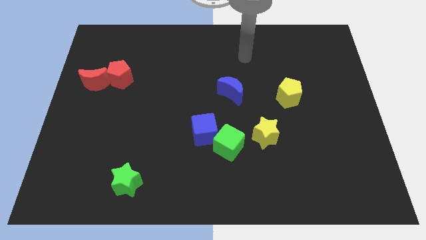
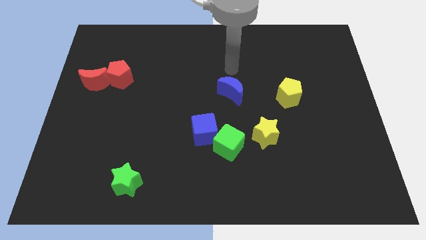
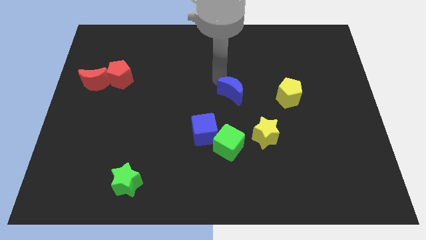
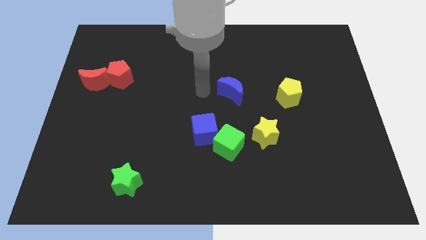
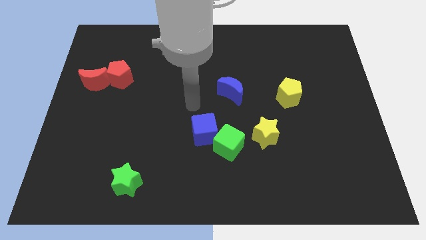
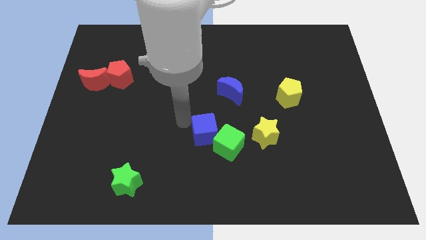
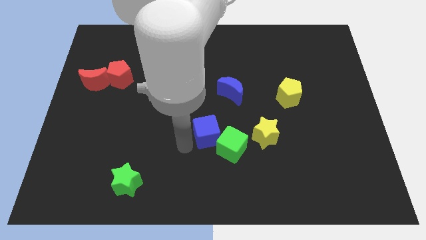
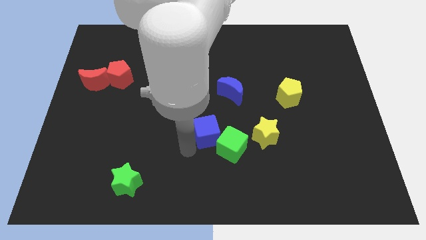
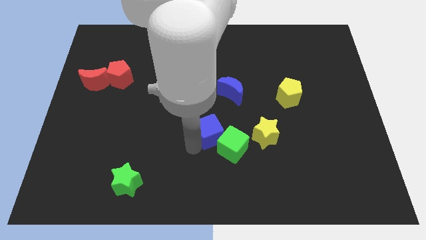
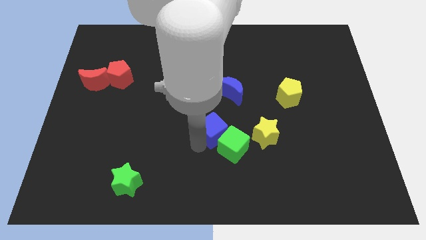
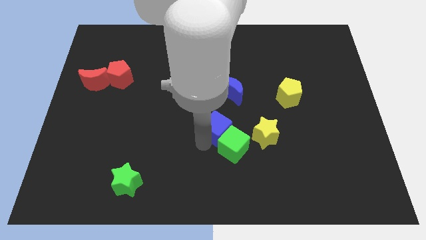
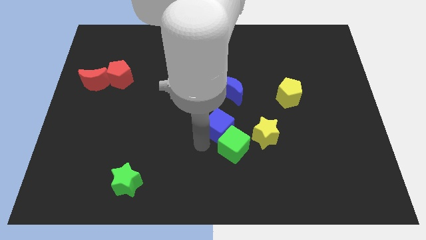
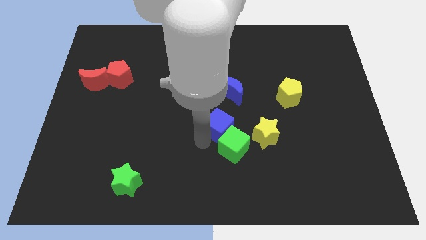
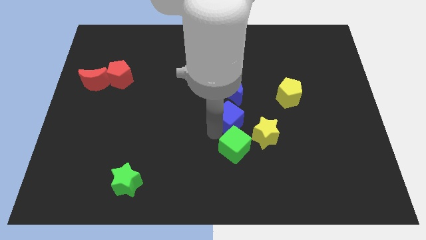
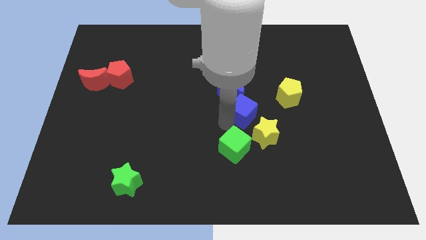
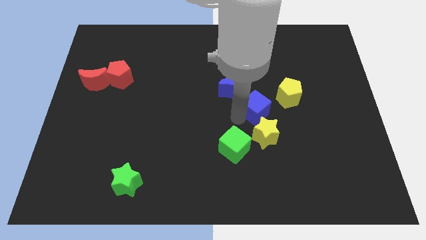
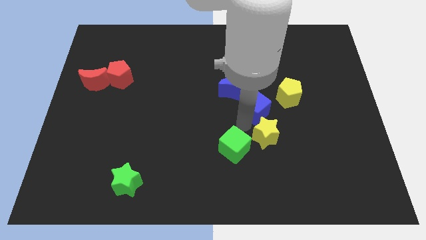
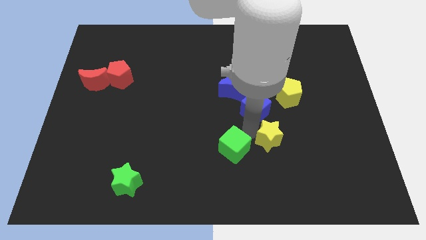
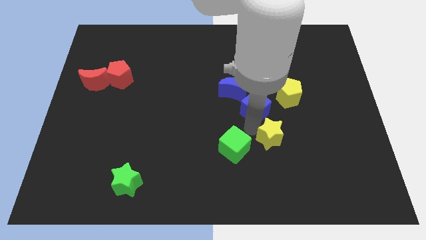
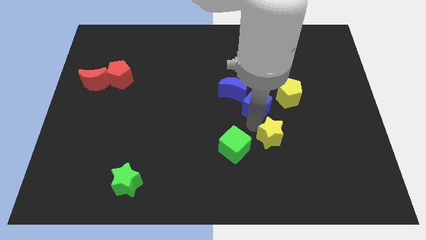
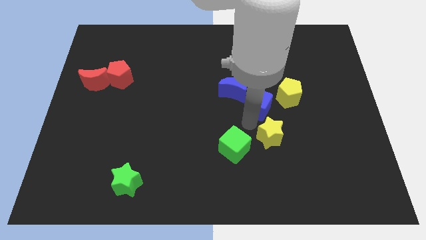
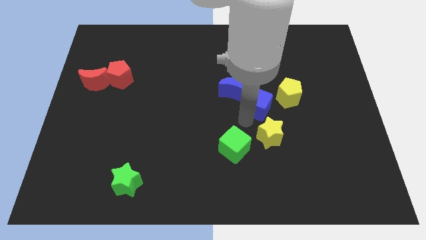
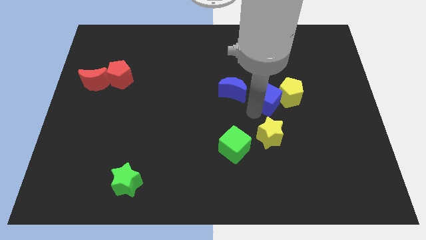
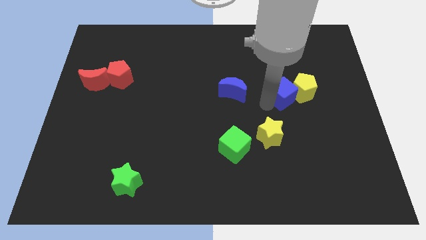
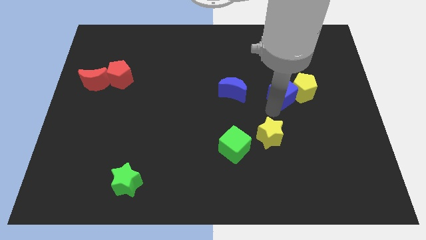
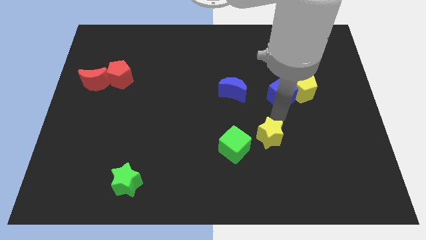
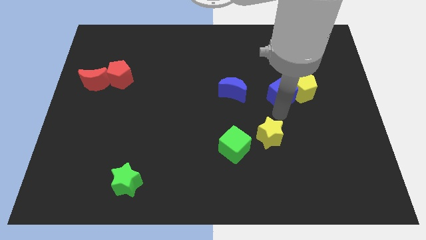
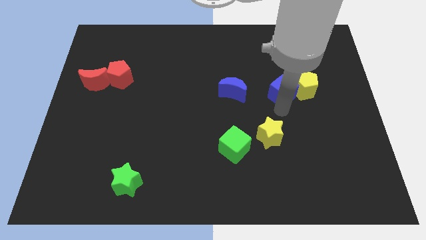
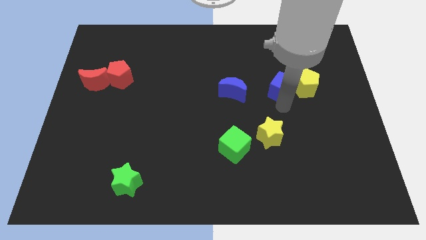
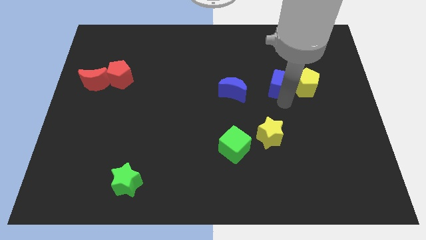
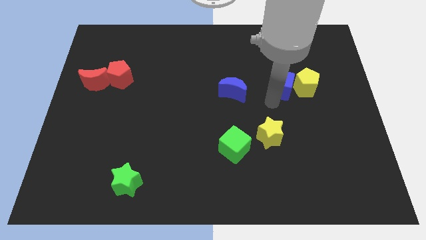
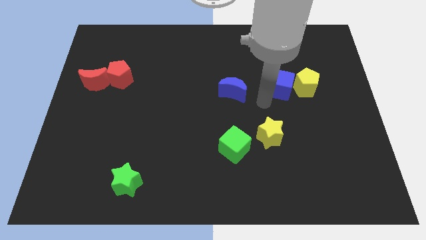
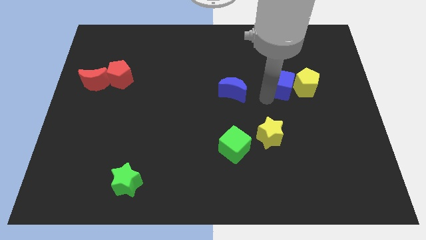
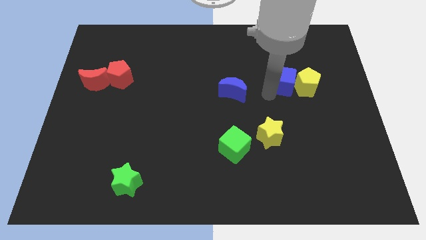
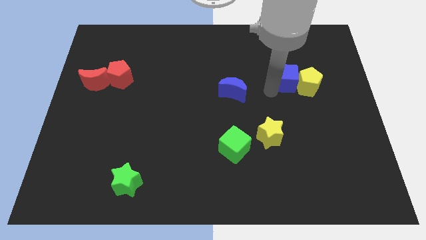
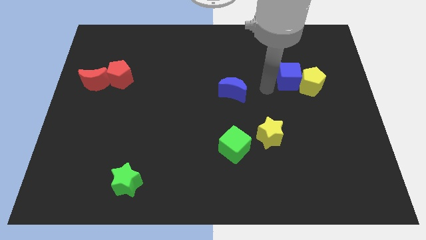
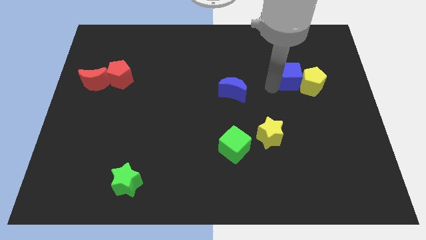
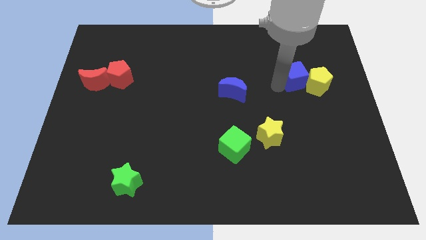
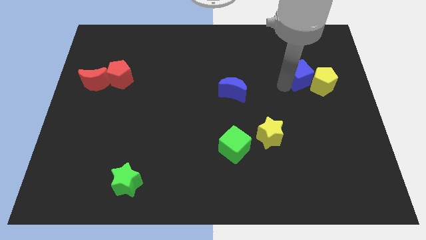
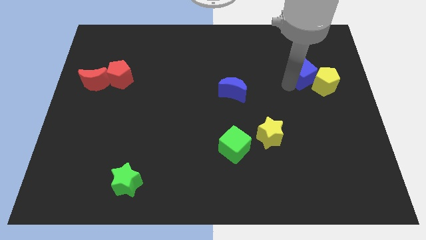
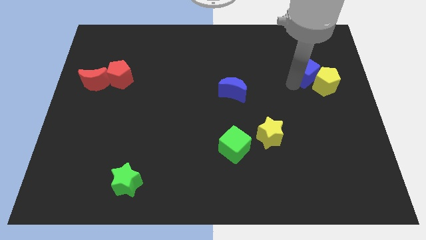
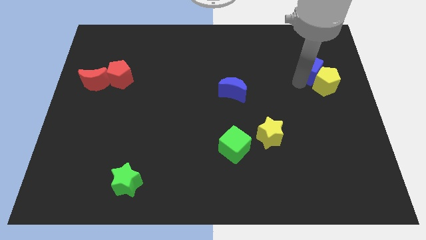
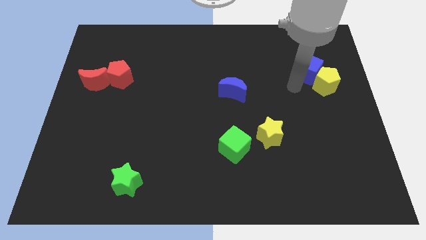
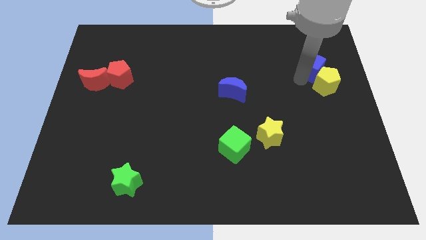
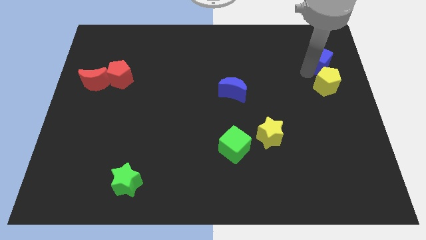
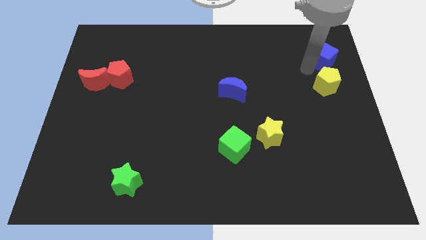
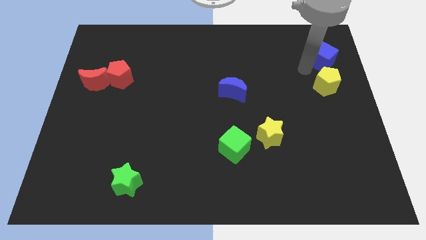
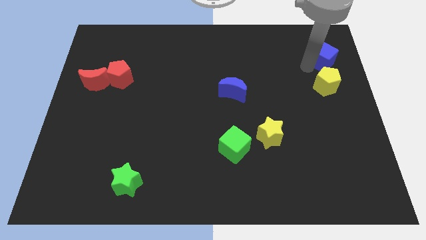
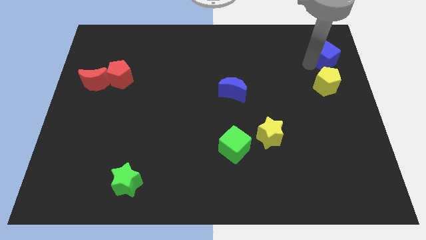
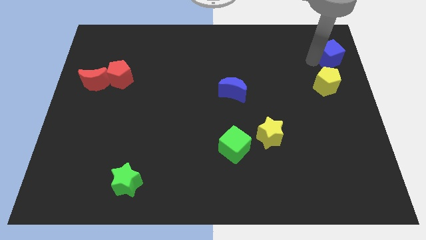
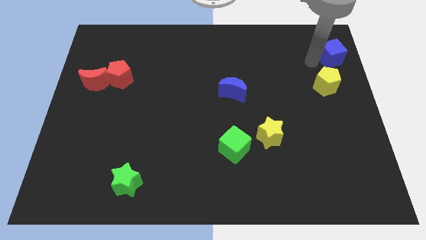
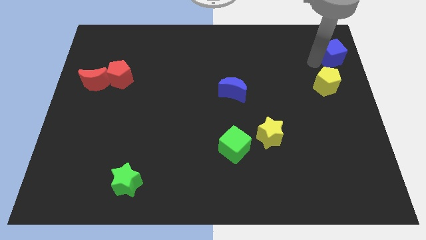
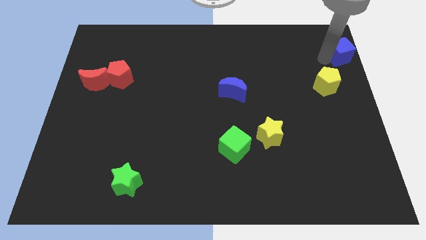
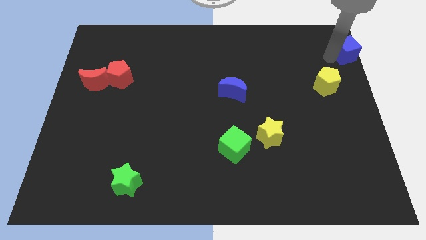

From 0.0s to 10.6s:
slide the blue cube to the top right corner
